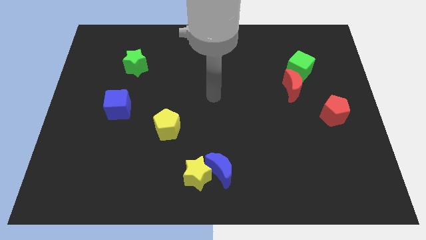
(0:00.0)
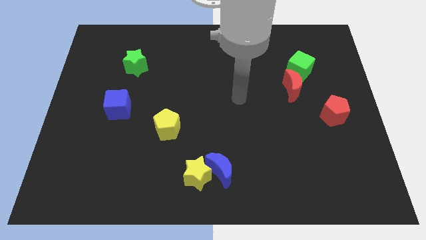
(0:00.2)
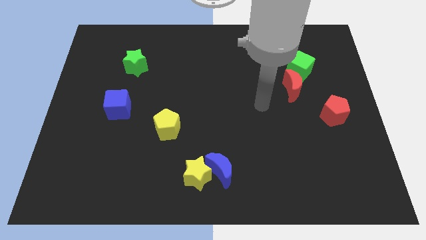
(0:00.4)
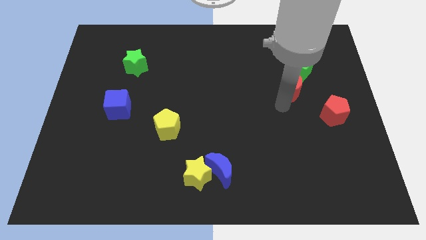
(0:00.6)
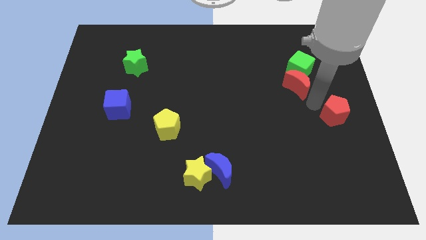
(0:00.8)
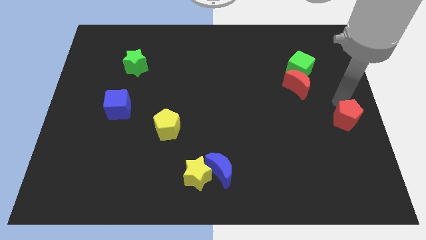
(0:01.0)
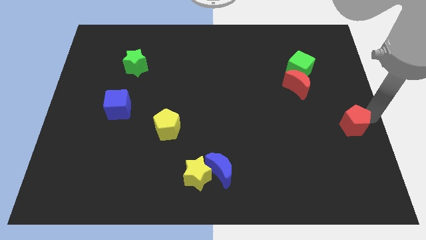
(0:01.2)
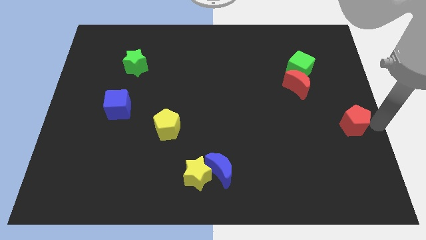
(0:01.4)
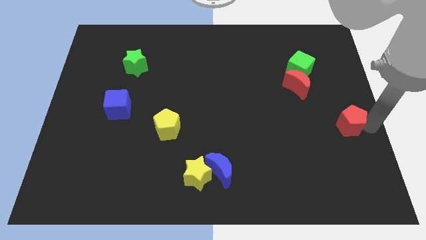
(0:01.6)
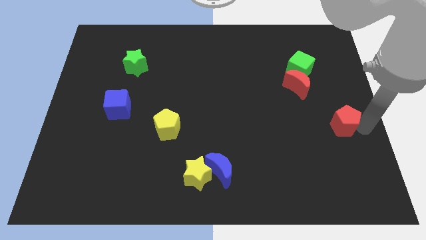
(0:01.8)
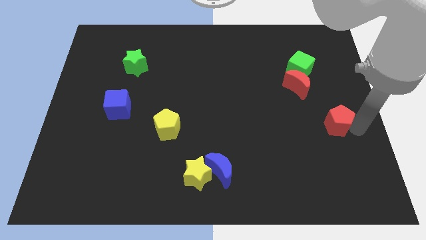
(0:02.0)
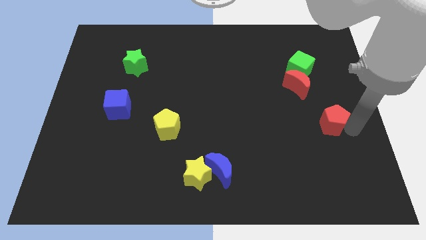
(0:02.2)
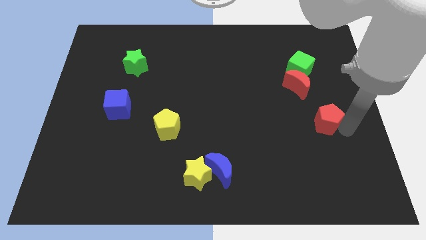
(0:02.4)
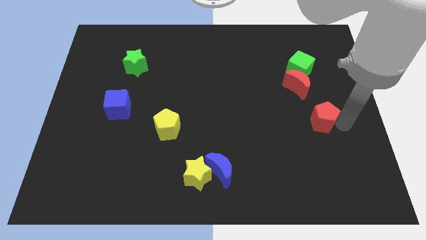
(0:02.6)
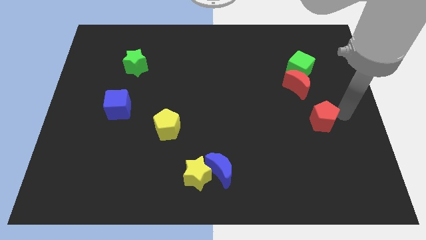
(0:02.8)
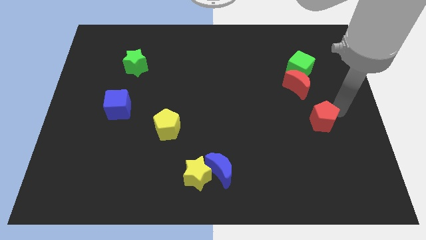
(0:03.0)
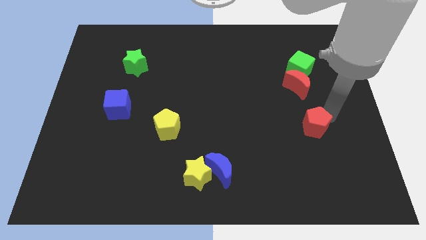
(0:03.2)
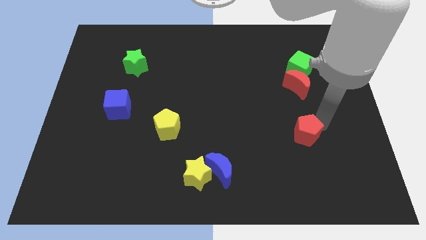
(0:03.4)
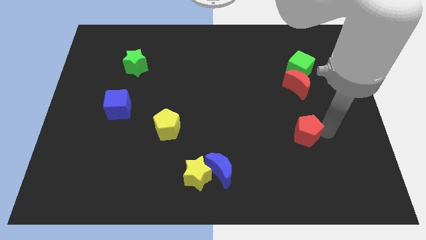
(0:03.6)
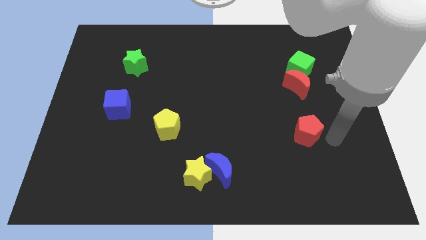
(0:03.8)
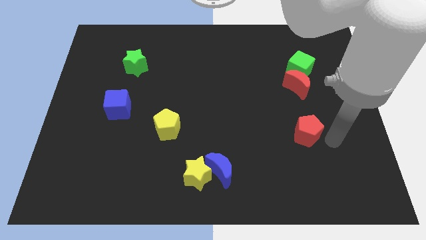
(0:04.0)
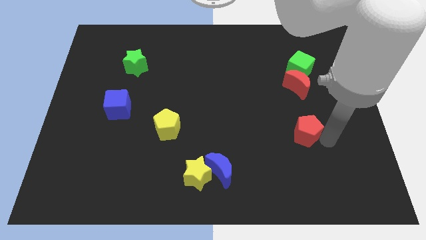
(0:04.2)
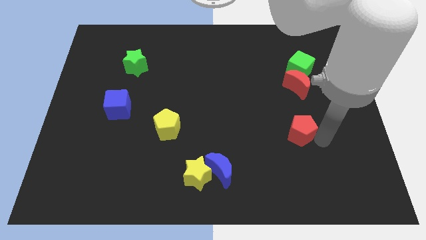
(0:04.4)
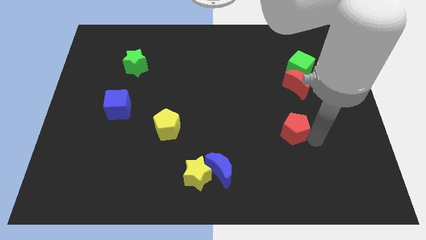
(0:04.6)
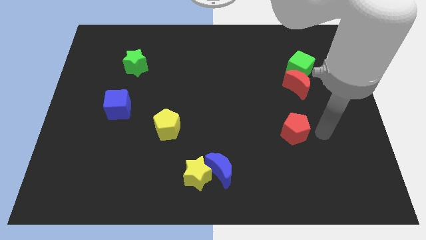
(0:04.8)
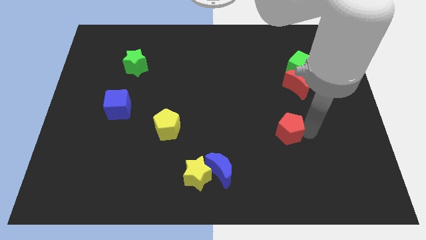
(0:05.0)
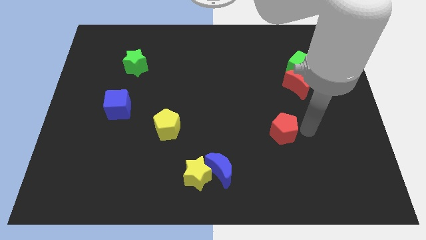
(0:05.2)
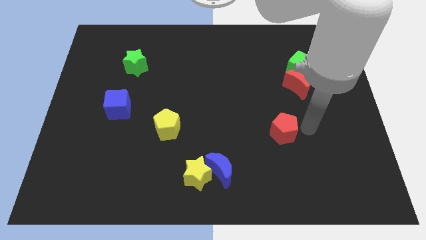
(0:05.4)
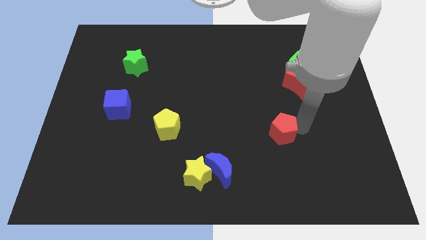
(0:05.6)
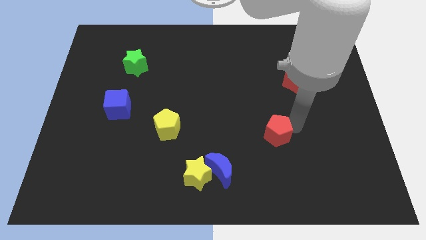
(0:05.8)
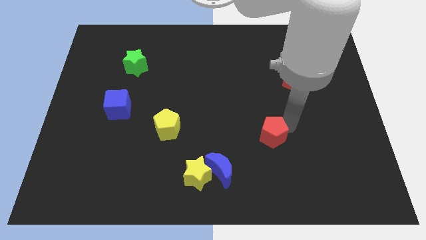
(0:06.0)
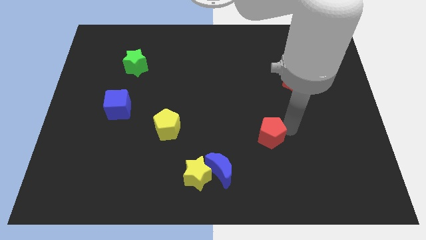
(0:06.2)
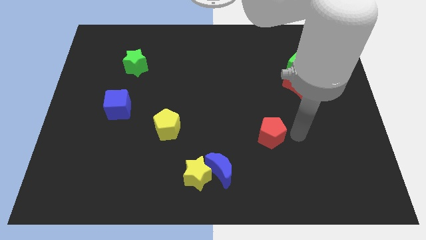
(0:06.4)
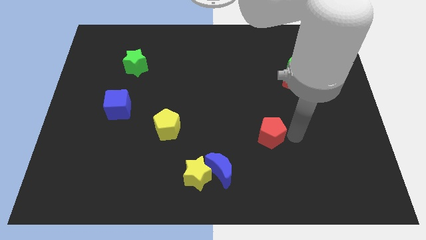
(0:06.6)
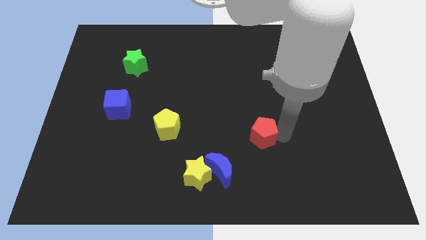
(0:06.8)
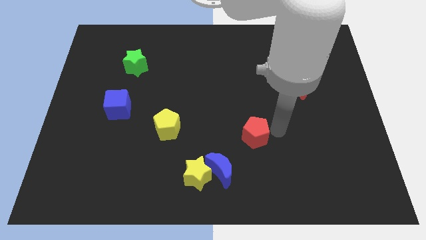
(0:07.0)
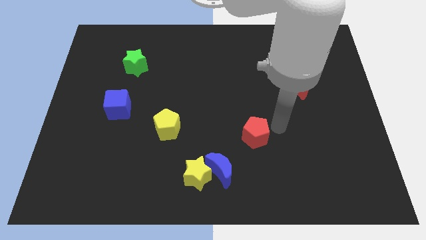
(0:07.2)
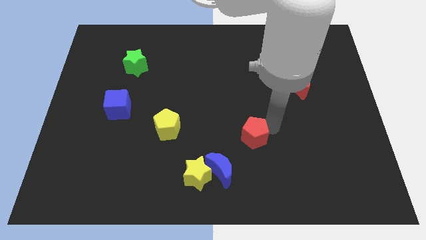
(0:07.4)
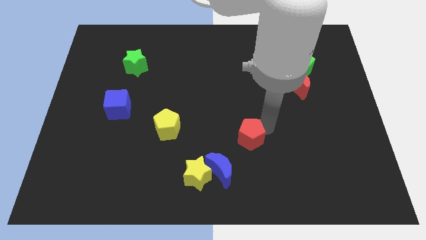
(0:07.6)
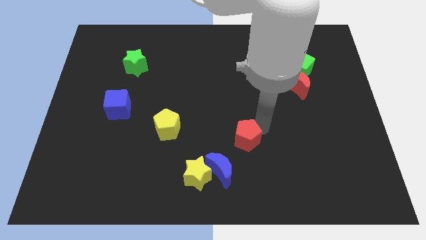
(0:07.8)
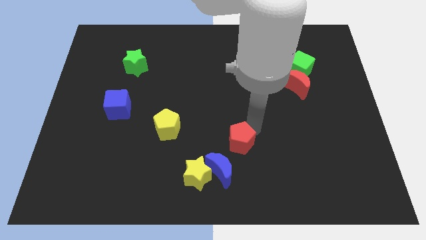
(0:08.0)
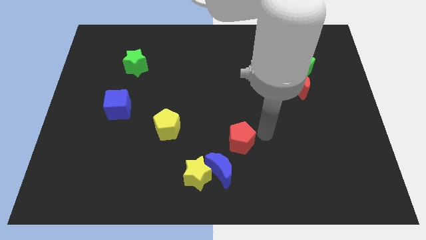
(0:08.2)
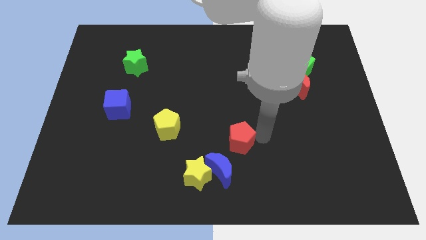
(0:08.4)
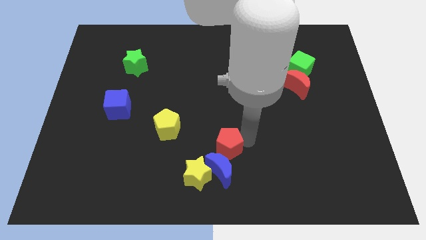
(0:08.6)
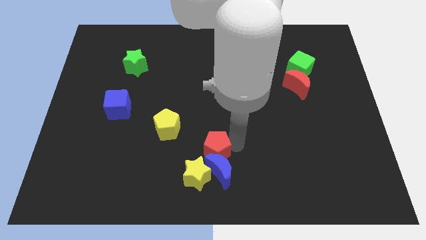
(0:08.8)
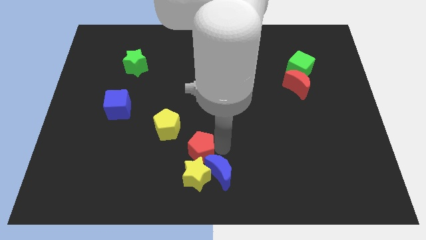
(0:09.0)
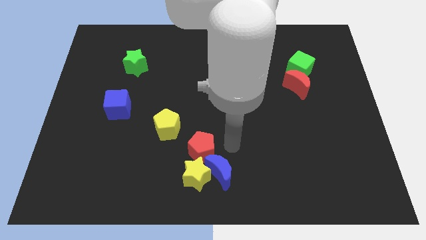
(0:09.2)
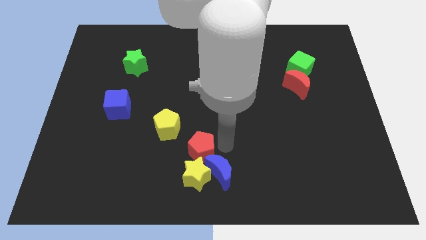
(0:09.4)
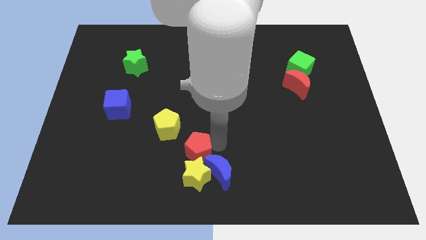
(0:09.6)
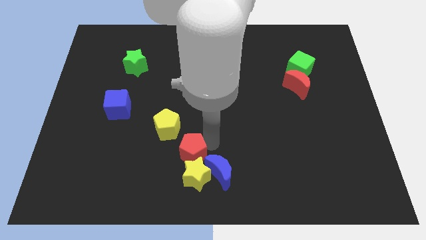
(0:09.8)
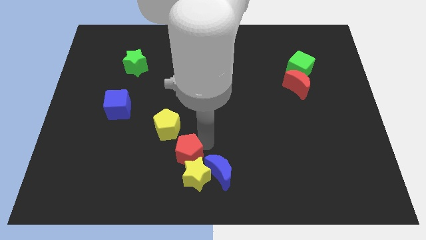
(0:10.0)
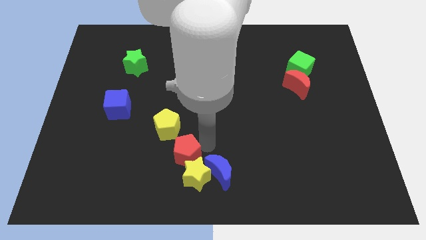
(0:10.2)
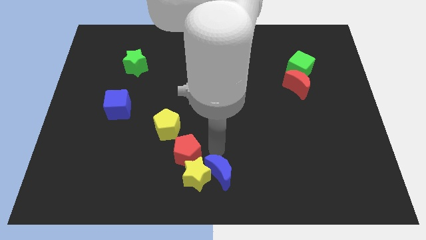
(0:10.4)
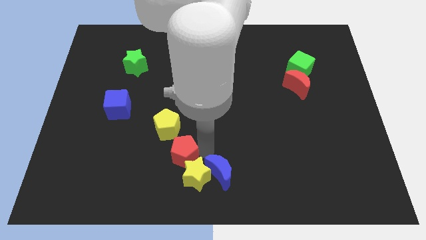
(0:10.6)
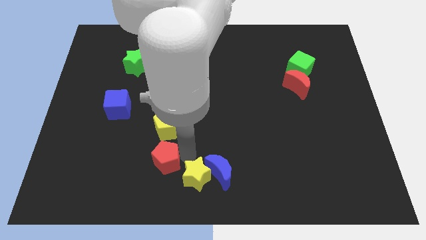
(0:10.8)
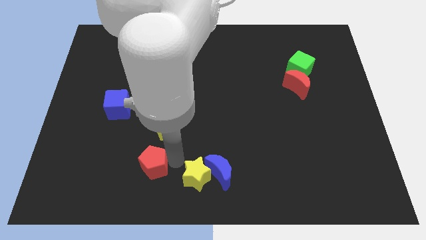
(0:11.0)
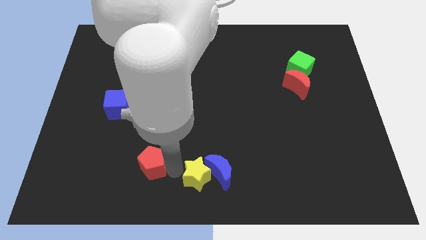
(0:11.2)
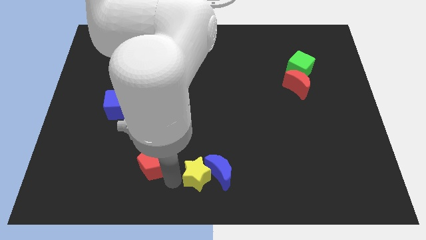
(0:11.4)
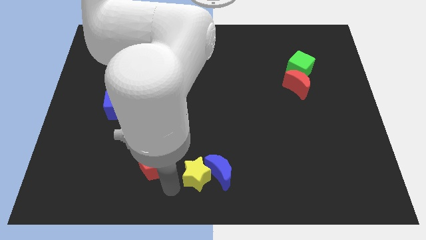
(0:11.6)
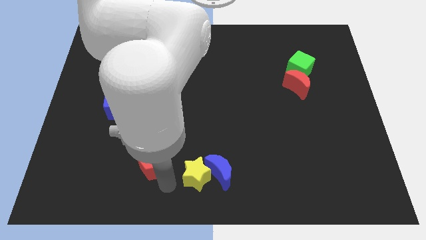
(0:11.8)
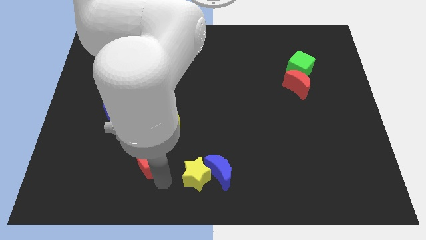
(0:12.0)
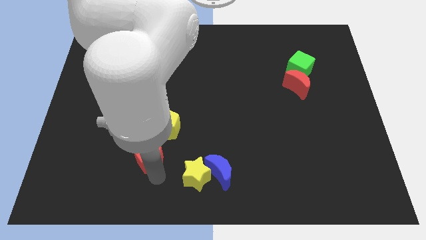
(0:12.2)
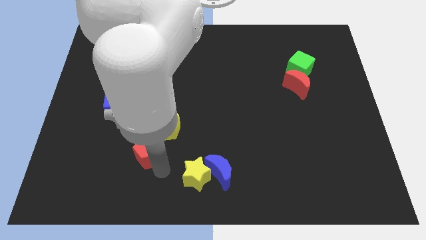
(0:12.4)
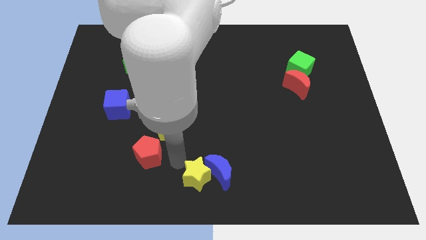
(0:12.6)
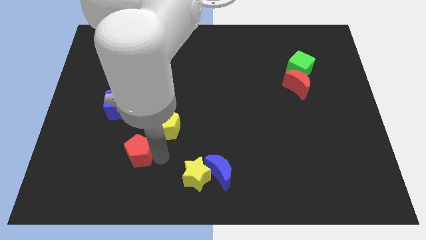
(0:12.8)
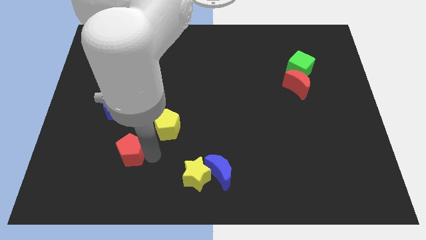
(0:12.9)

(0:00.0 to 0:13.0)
put the red pentagon to the bottom side of the blue cube

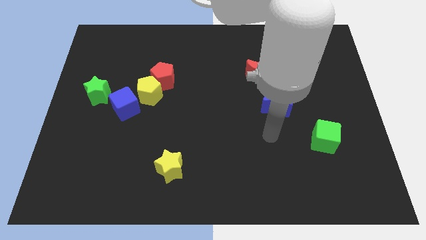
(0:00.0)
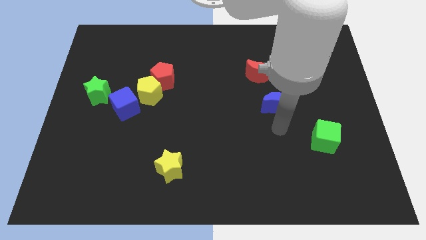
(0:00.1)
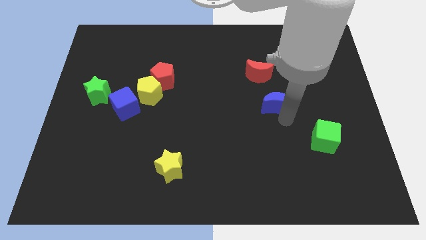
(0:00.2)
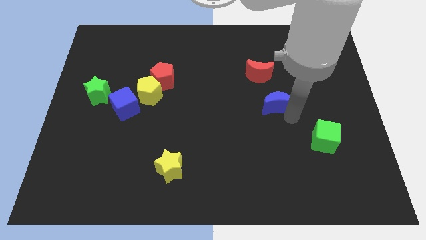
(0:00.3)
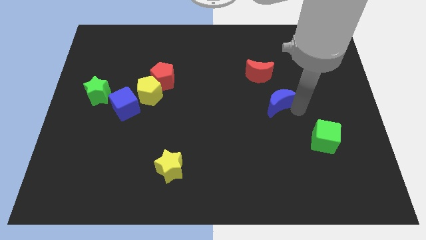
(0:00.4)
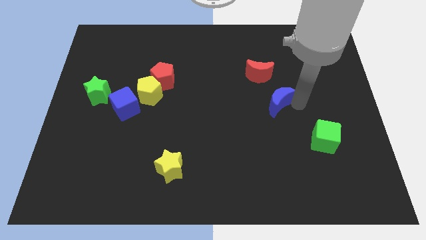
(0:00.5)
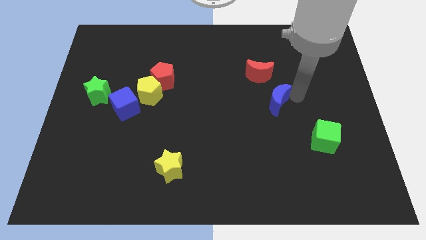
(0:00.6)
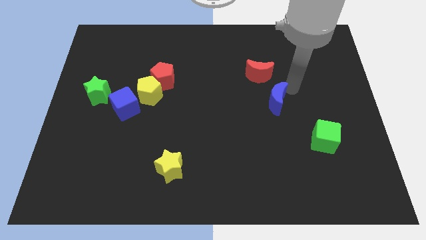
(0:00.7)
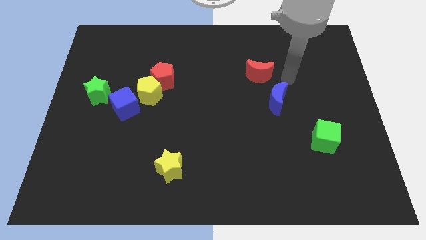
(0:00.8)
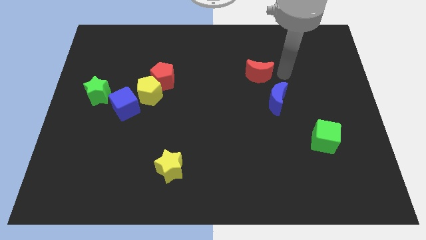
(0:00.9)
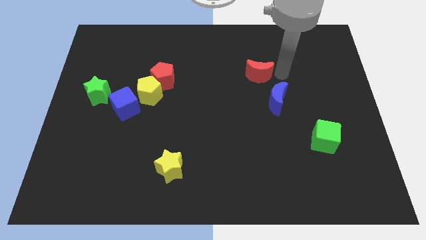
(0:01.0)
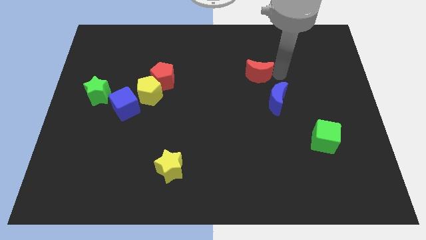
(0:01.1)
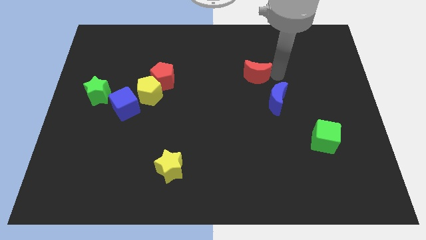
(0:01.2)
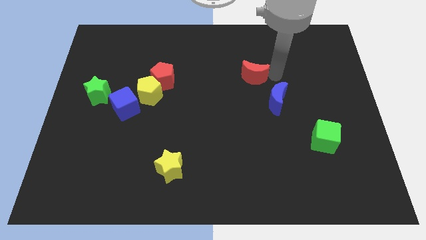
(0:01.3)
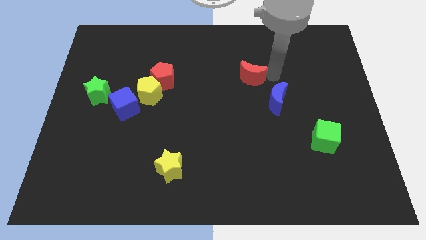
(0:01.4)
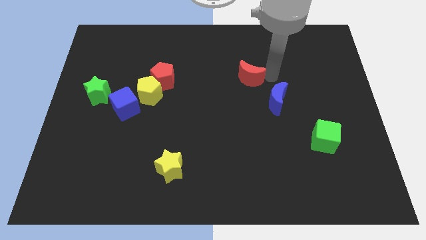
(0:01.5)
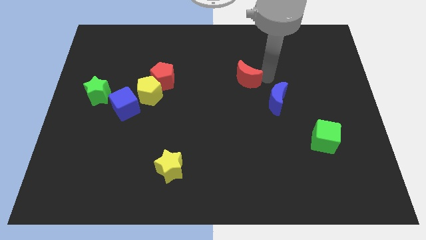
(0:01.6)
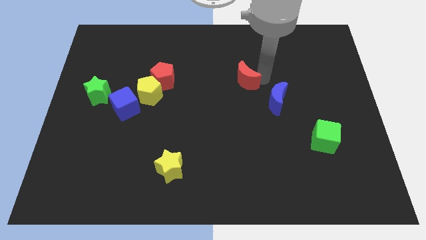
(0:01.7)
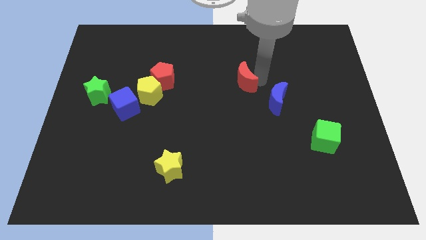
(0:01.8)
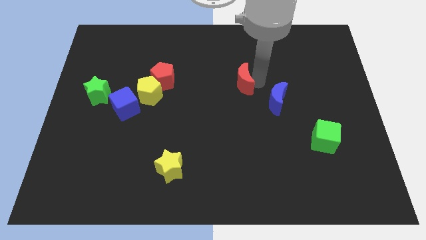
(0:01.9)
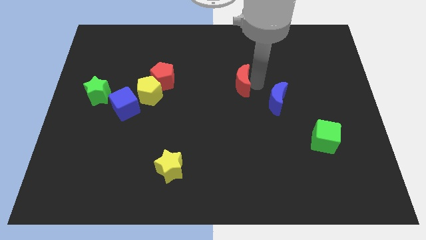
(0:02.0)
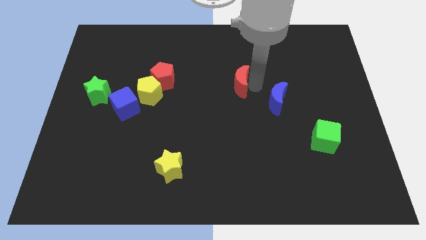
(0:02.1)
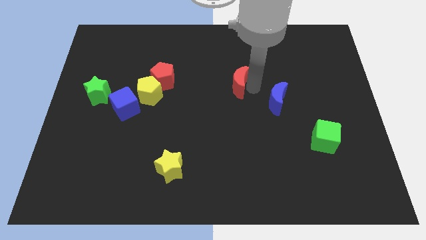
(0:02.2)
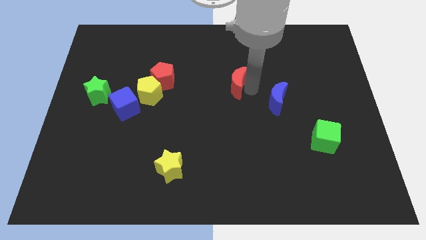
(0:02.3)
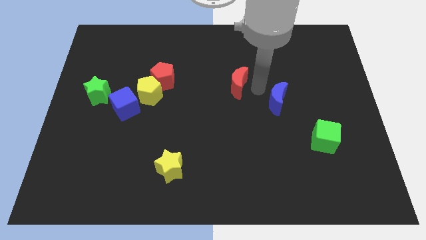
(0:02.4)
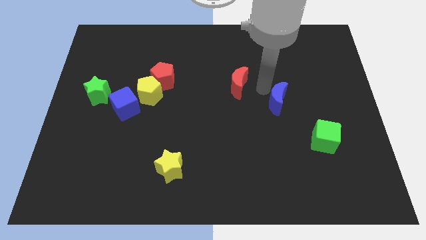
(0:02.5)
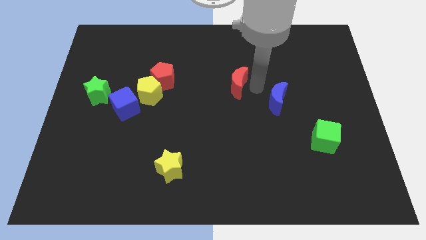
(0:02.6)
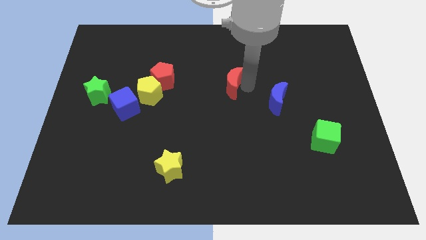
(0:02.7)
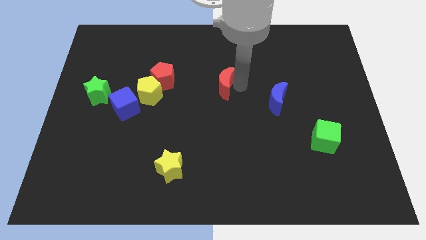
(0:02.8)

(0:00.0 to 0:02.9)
push the red moon to the right side of the red pentagon
